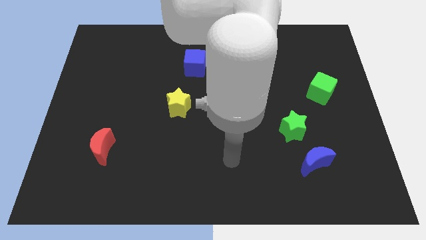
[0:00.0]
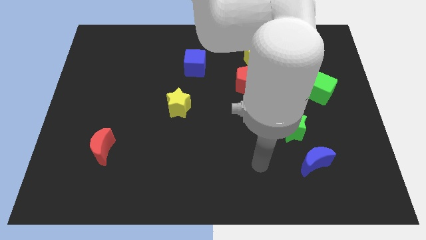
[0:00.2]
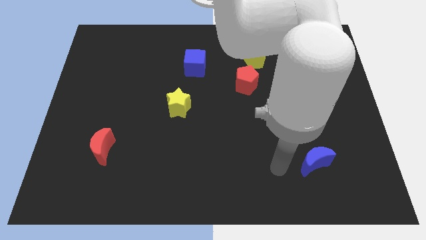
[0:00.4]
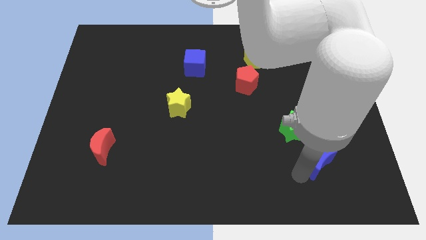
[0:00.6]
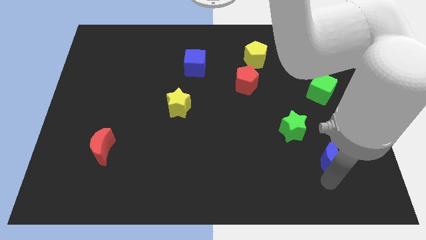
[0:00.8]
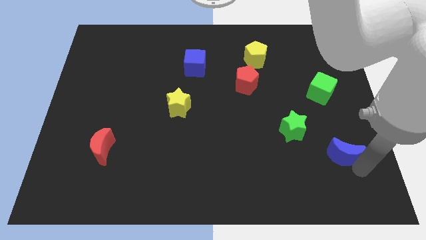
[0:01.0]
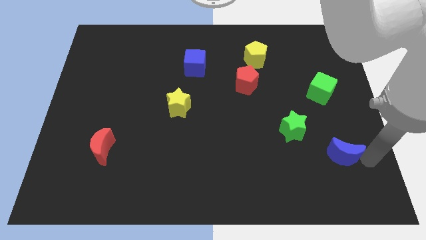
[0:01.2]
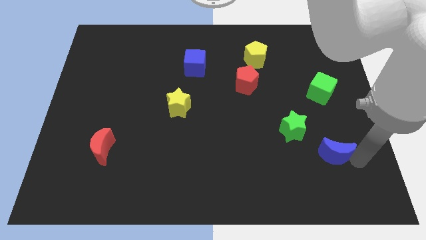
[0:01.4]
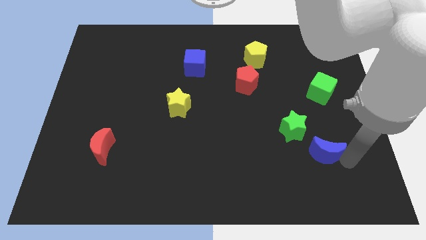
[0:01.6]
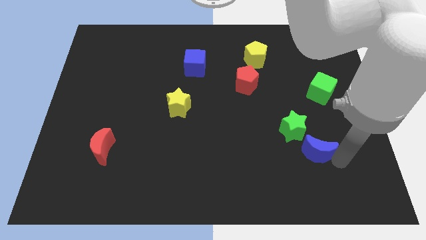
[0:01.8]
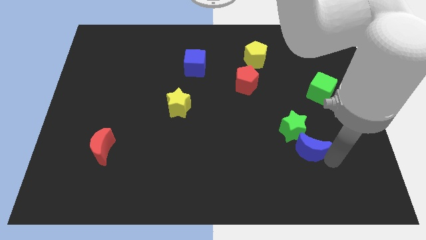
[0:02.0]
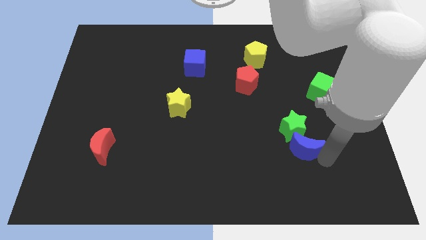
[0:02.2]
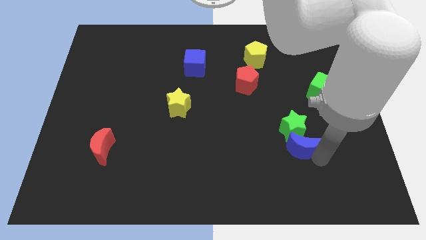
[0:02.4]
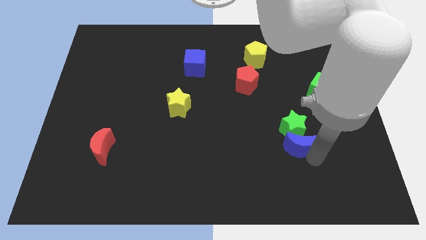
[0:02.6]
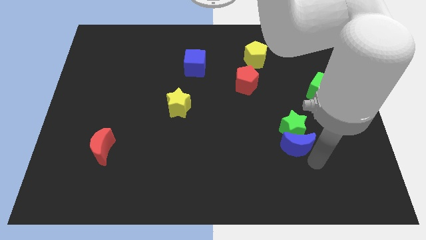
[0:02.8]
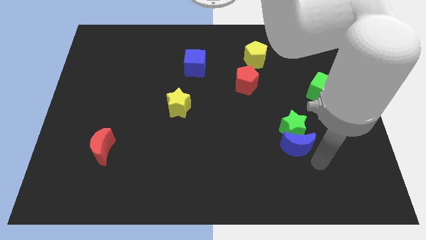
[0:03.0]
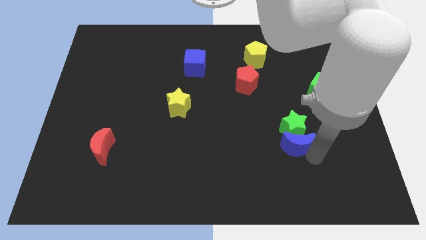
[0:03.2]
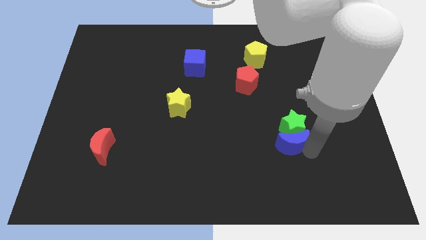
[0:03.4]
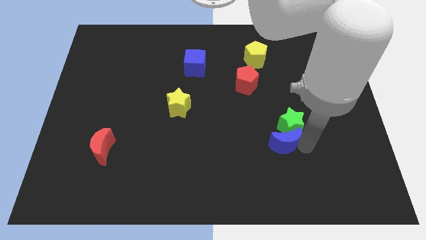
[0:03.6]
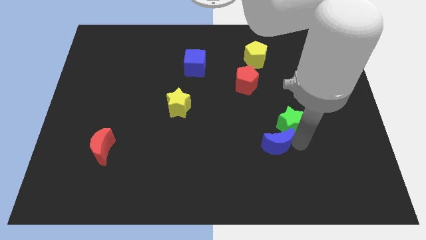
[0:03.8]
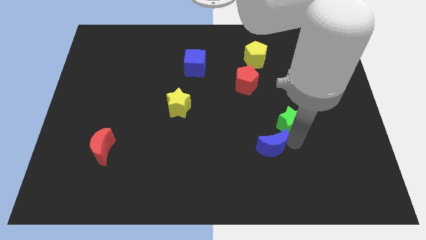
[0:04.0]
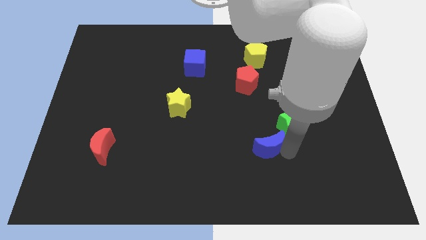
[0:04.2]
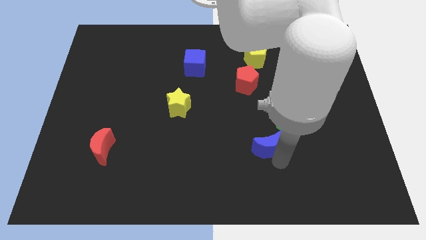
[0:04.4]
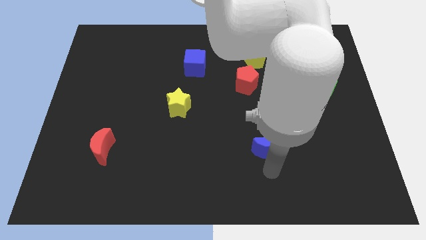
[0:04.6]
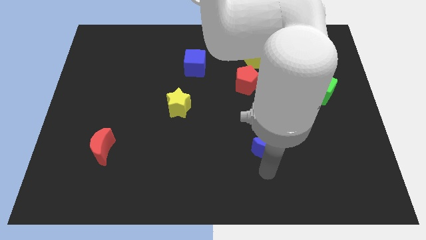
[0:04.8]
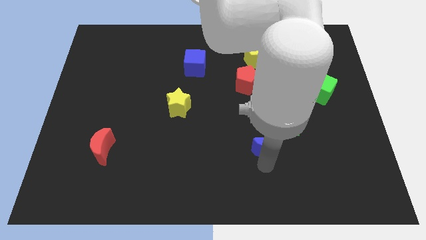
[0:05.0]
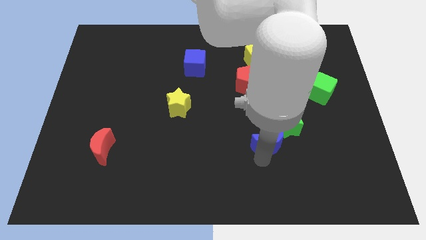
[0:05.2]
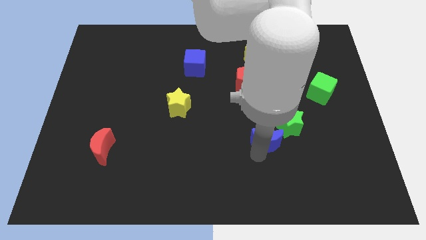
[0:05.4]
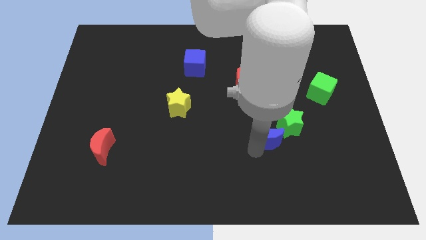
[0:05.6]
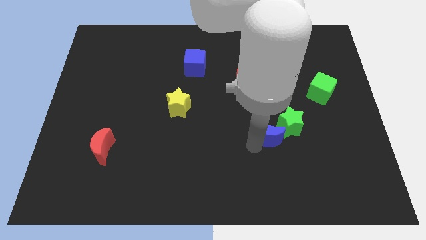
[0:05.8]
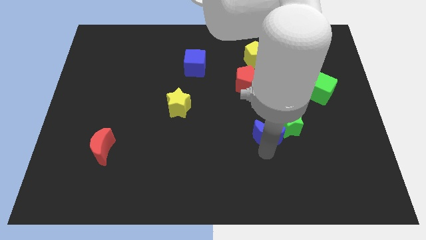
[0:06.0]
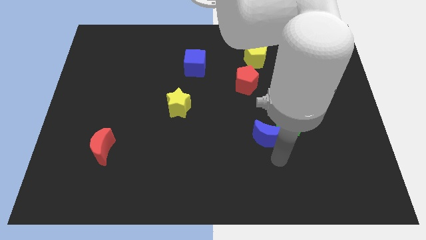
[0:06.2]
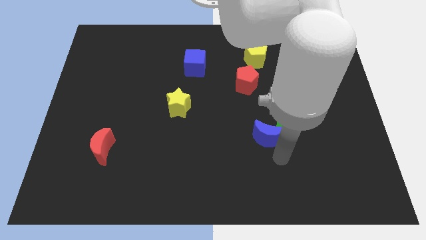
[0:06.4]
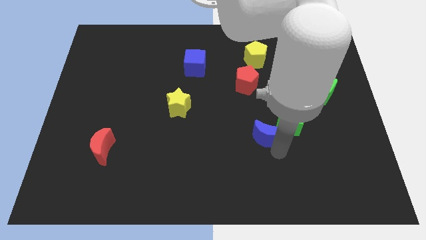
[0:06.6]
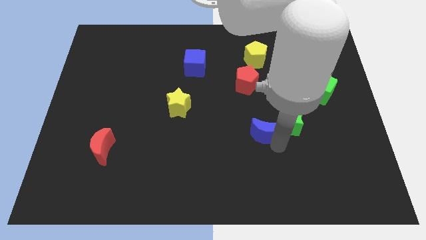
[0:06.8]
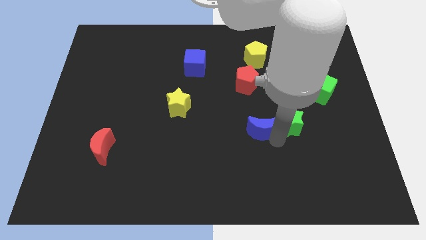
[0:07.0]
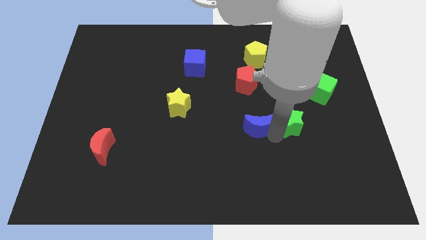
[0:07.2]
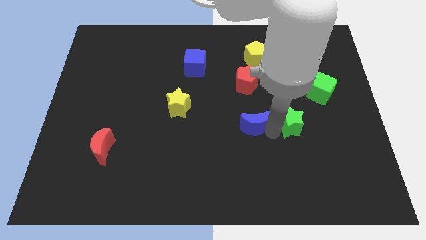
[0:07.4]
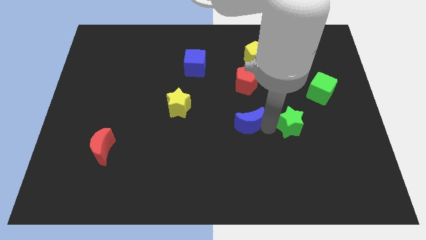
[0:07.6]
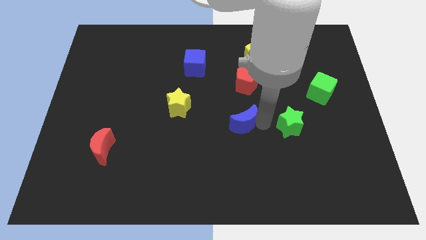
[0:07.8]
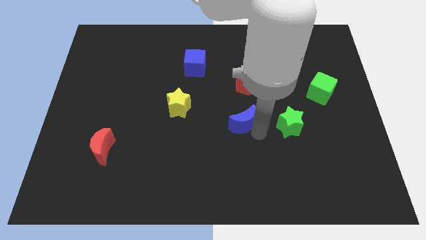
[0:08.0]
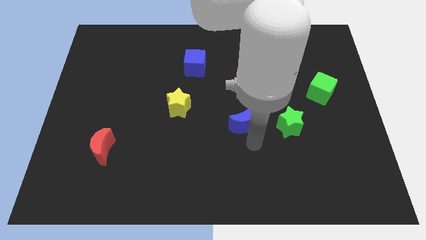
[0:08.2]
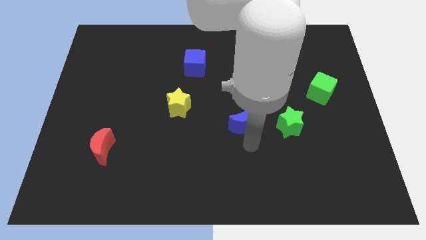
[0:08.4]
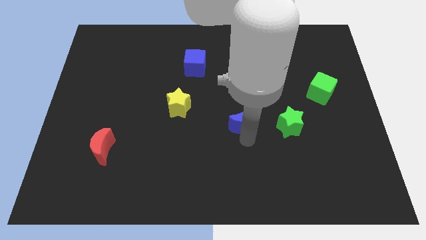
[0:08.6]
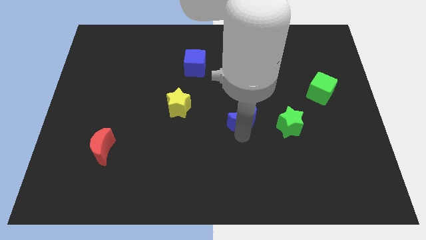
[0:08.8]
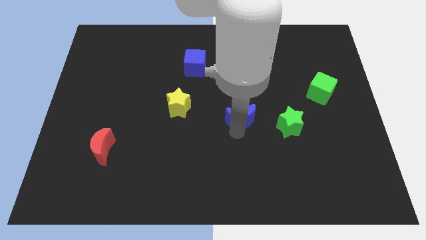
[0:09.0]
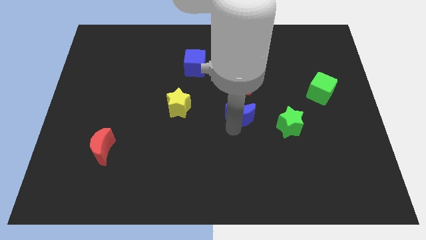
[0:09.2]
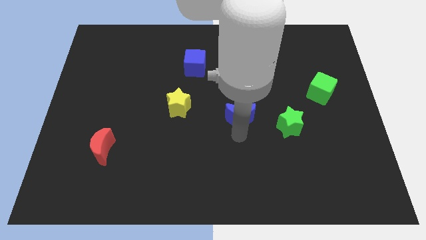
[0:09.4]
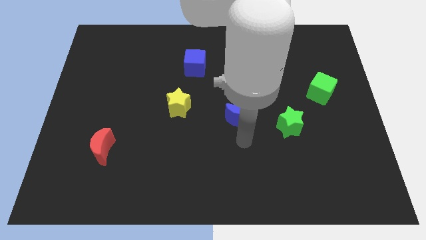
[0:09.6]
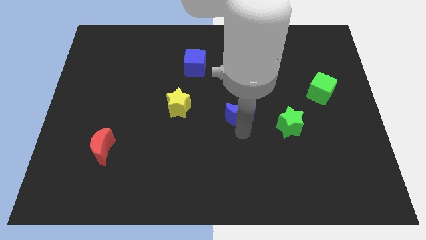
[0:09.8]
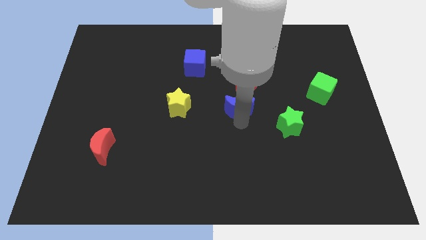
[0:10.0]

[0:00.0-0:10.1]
move the blue moon up and to the left

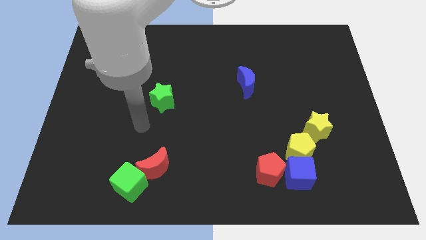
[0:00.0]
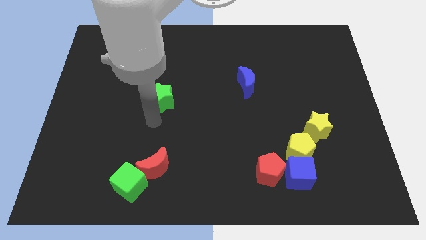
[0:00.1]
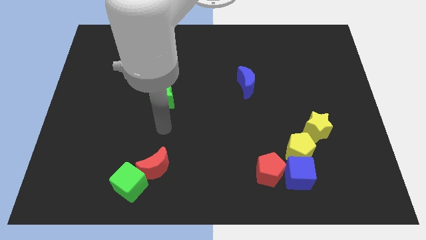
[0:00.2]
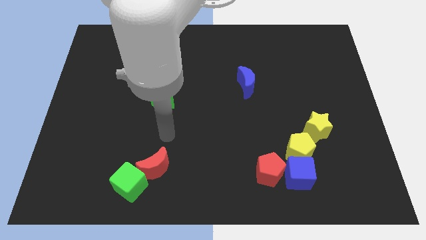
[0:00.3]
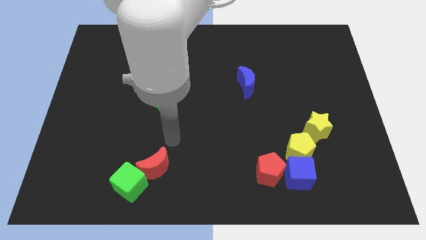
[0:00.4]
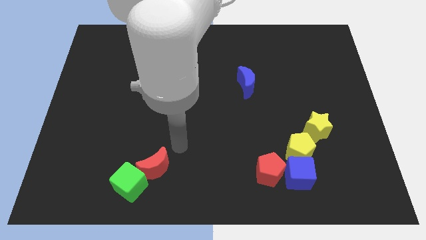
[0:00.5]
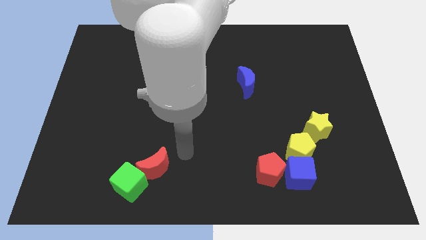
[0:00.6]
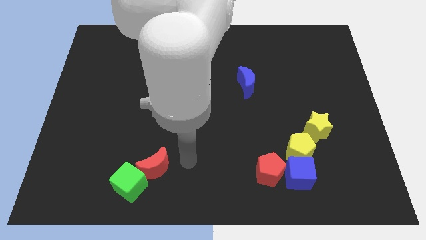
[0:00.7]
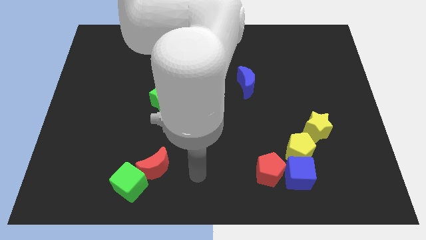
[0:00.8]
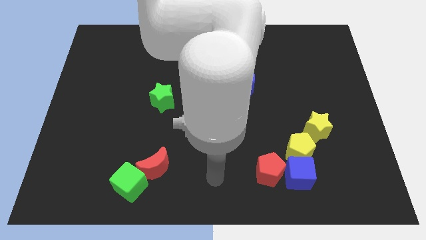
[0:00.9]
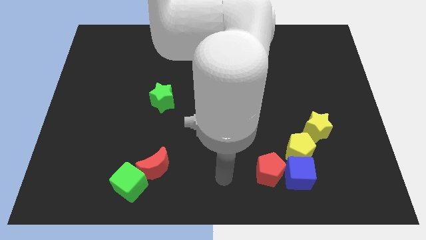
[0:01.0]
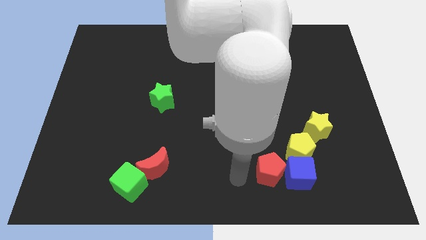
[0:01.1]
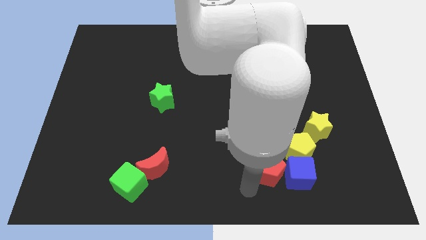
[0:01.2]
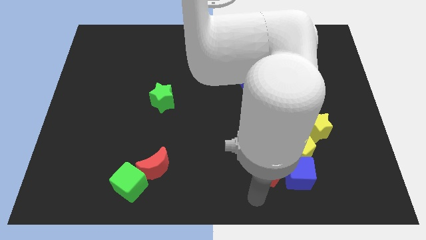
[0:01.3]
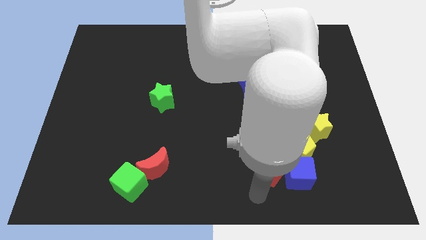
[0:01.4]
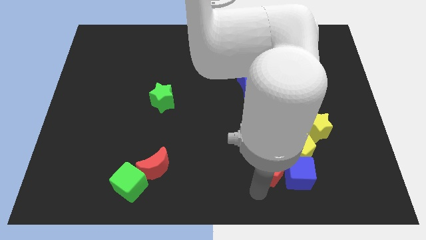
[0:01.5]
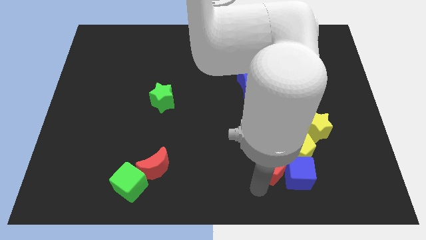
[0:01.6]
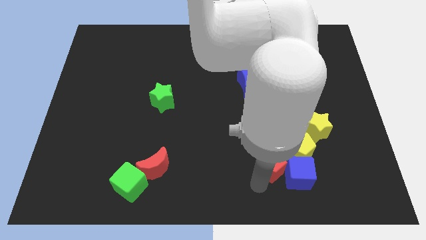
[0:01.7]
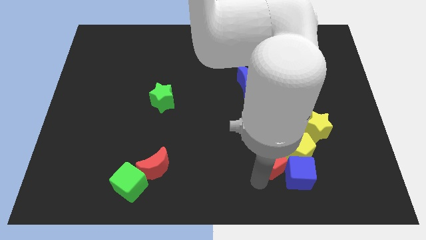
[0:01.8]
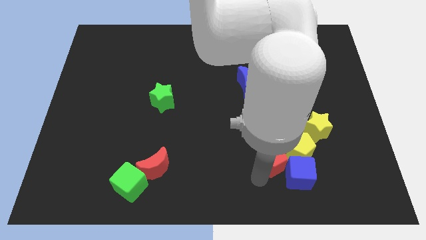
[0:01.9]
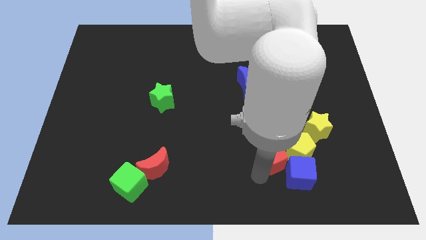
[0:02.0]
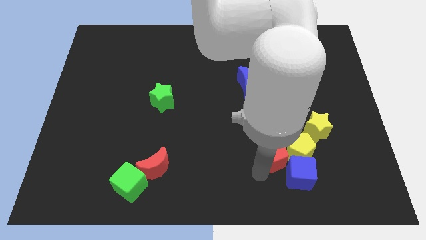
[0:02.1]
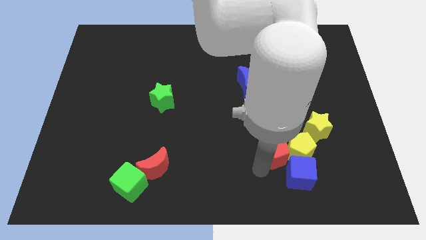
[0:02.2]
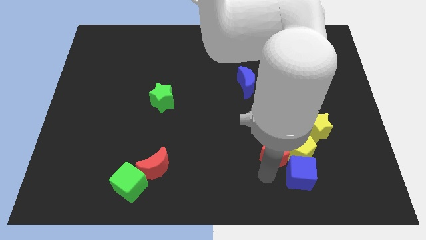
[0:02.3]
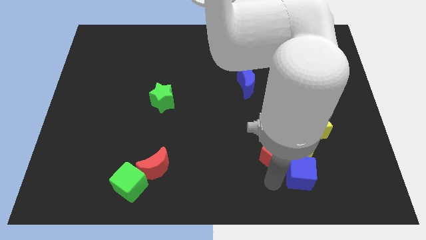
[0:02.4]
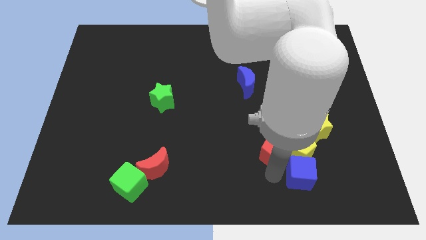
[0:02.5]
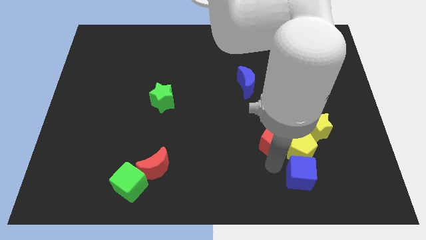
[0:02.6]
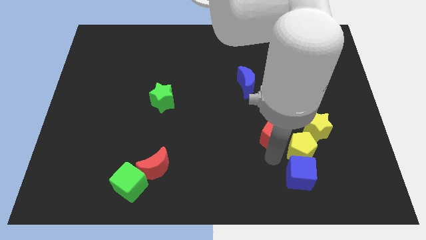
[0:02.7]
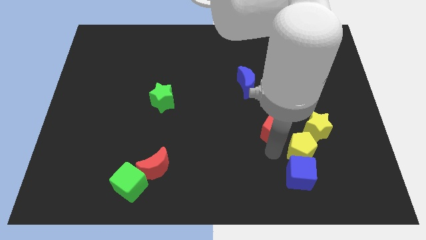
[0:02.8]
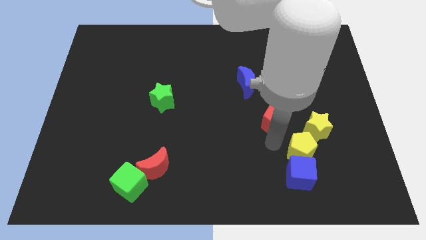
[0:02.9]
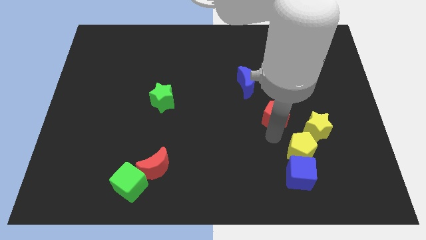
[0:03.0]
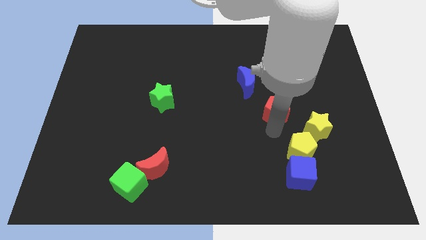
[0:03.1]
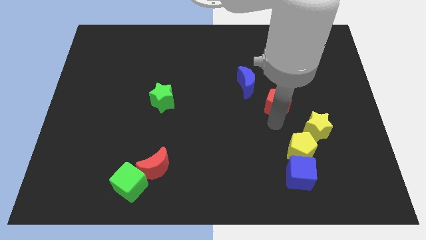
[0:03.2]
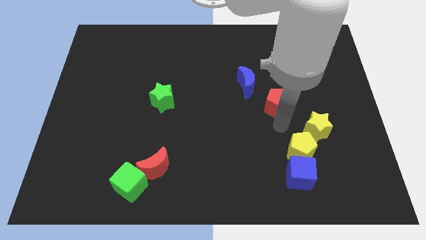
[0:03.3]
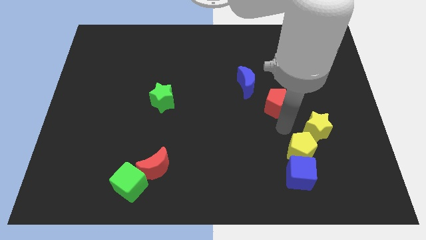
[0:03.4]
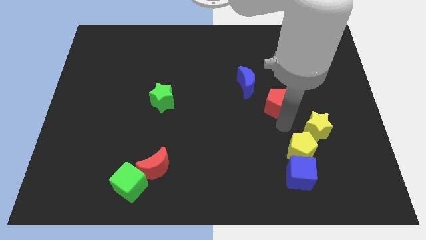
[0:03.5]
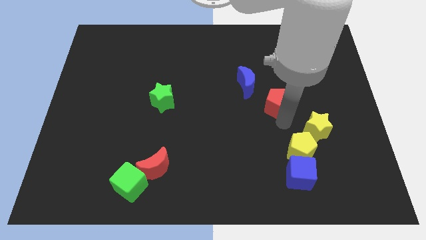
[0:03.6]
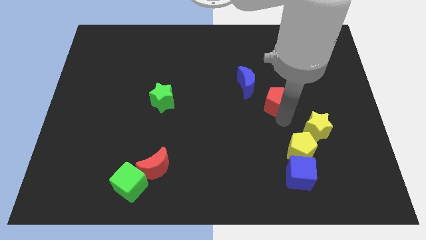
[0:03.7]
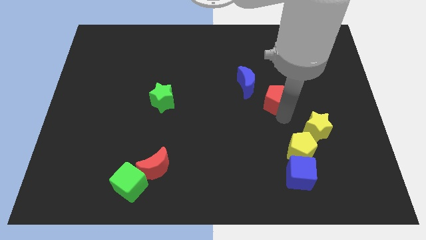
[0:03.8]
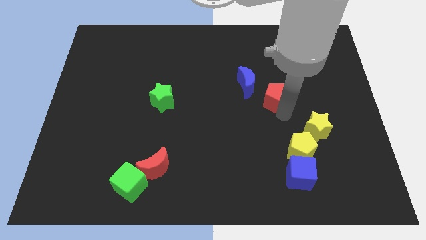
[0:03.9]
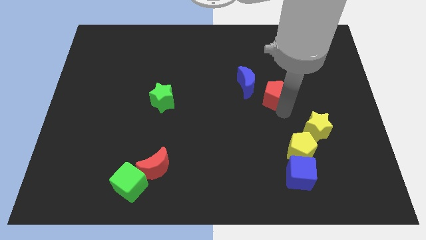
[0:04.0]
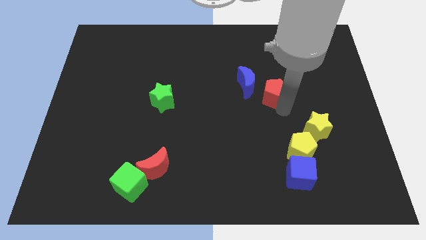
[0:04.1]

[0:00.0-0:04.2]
slide the red pentagon up
